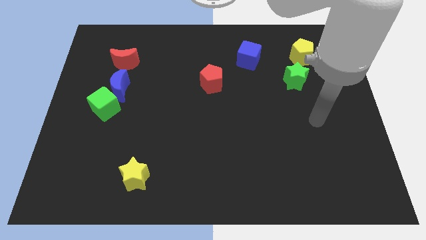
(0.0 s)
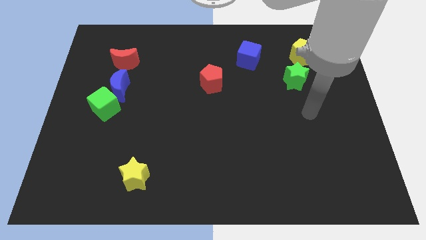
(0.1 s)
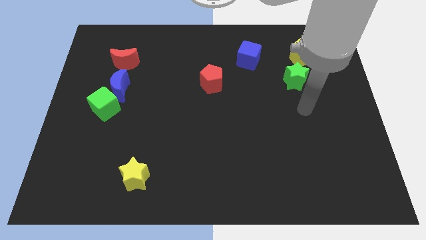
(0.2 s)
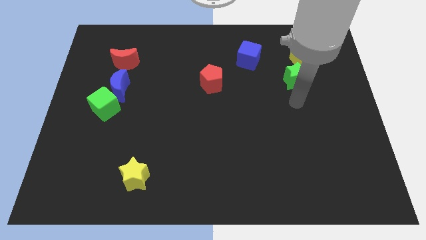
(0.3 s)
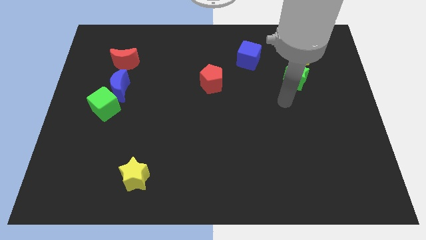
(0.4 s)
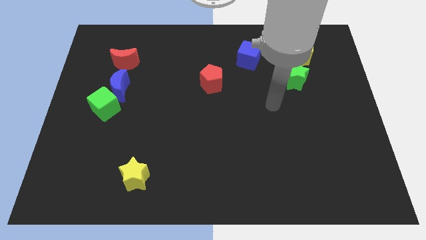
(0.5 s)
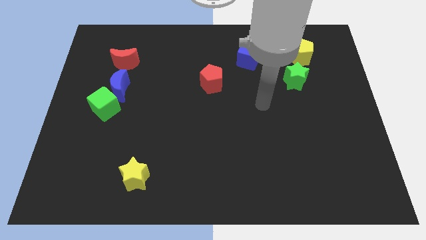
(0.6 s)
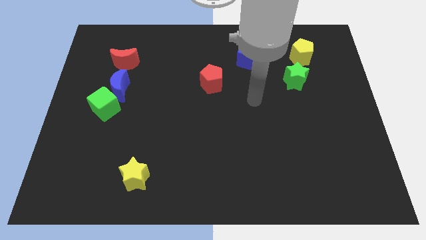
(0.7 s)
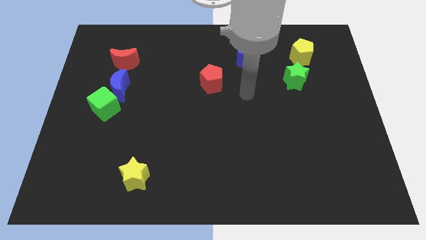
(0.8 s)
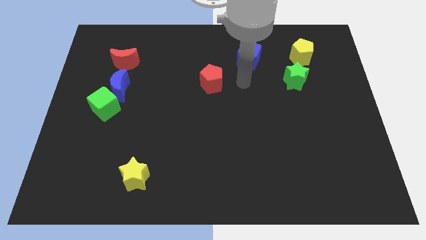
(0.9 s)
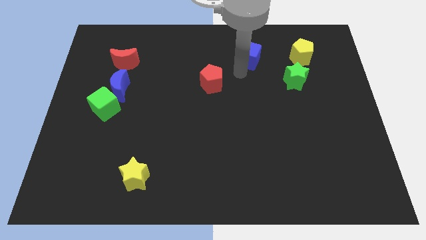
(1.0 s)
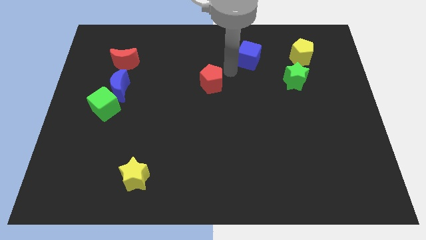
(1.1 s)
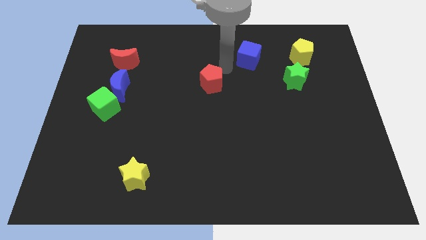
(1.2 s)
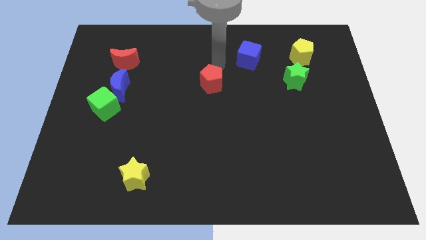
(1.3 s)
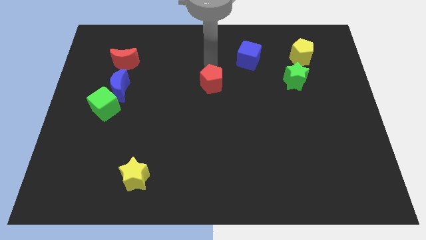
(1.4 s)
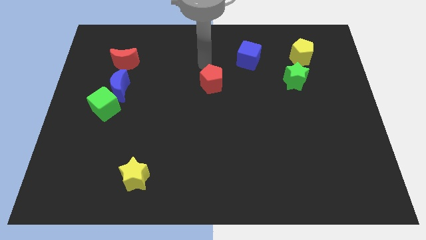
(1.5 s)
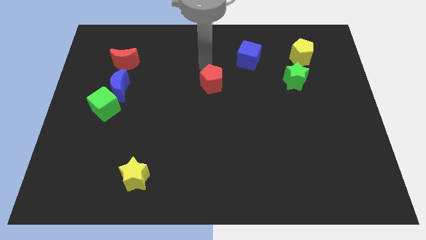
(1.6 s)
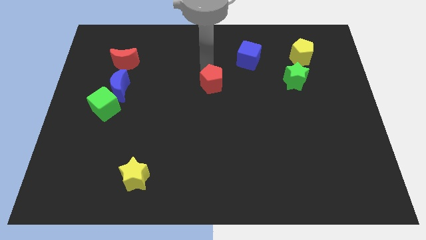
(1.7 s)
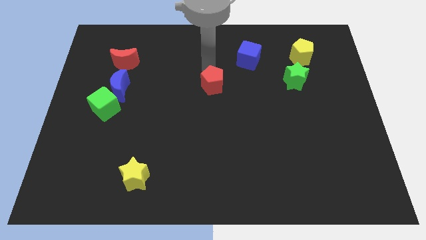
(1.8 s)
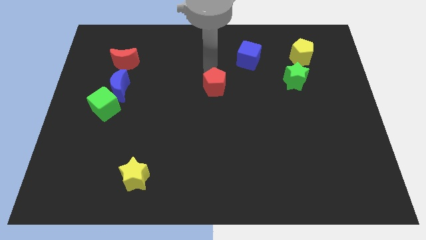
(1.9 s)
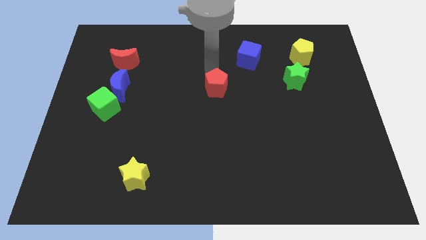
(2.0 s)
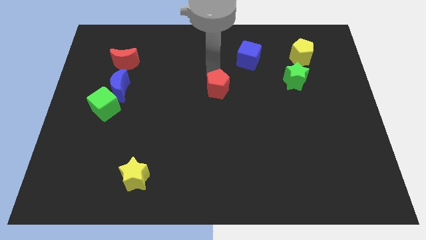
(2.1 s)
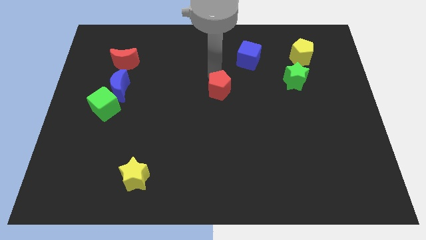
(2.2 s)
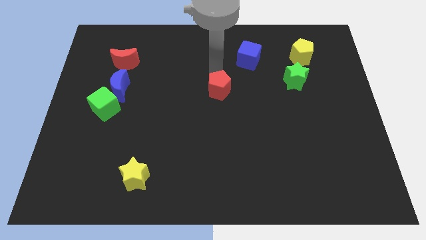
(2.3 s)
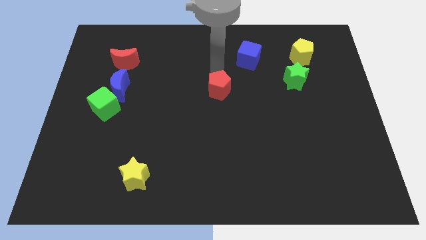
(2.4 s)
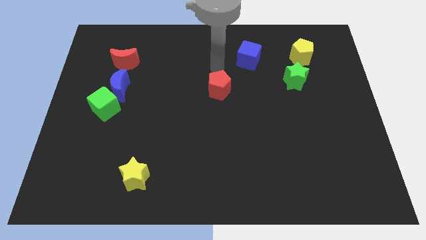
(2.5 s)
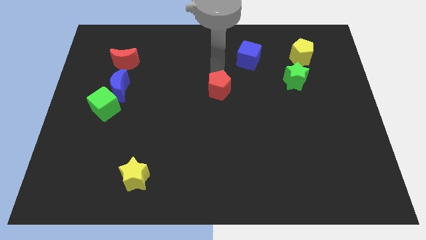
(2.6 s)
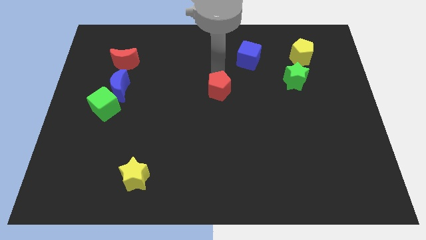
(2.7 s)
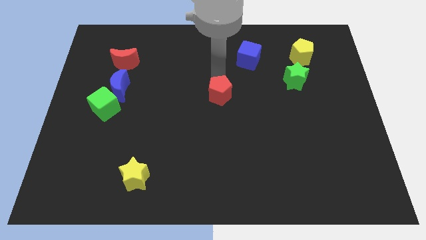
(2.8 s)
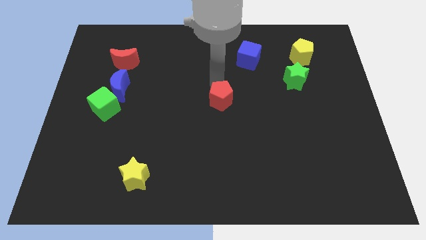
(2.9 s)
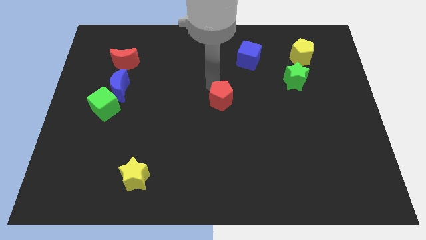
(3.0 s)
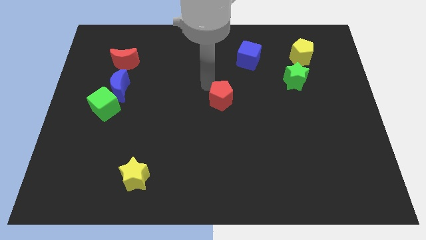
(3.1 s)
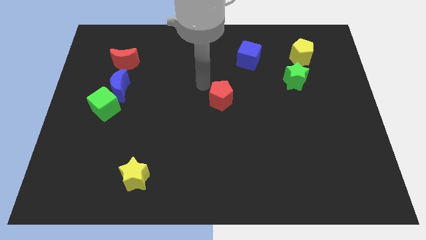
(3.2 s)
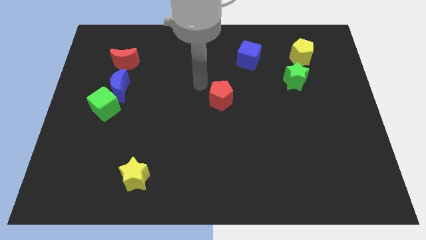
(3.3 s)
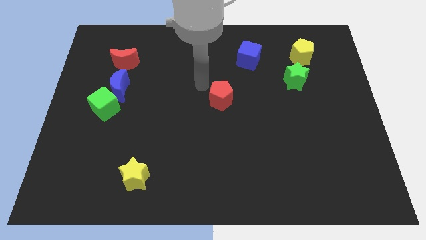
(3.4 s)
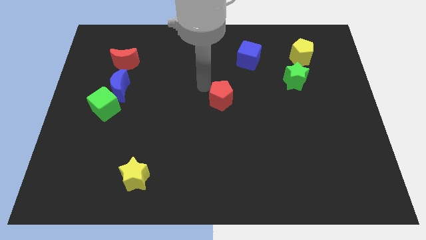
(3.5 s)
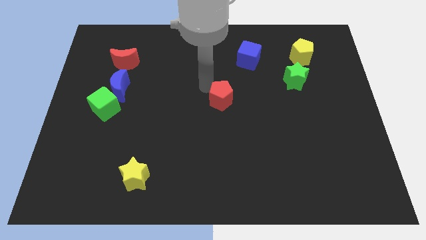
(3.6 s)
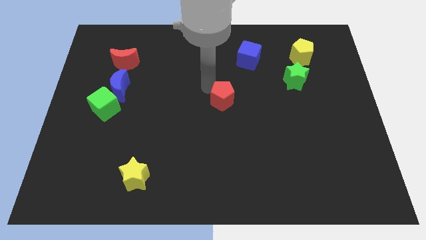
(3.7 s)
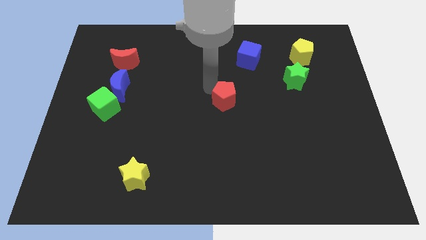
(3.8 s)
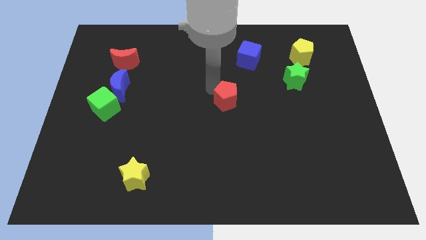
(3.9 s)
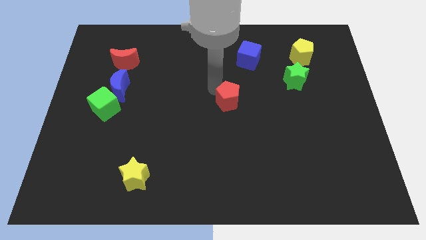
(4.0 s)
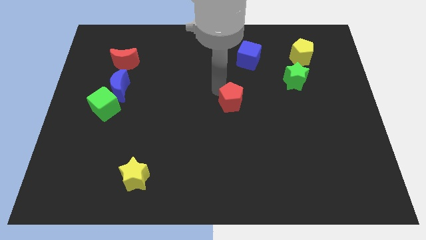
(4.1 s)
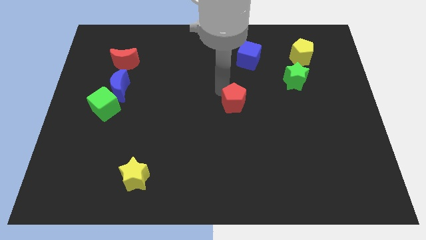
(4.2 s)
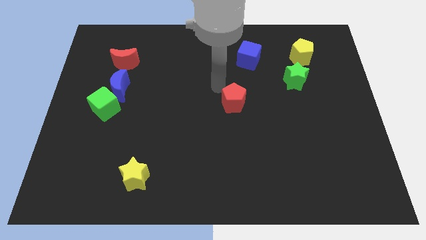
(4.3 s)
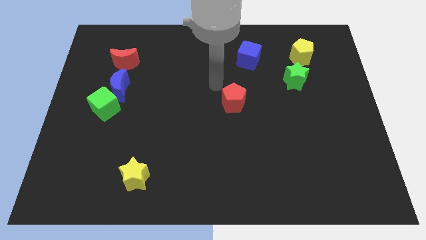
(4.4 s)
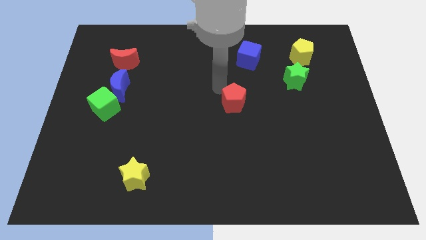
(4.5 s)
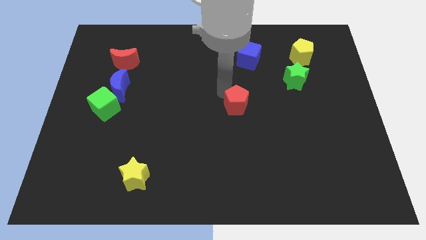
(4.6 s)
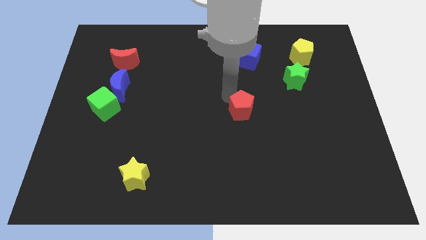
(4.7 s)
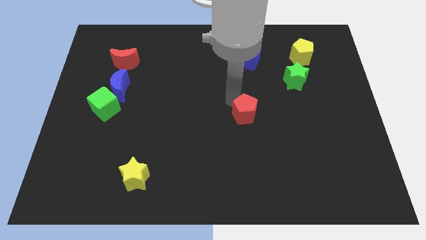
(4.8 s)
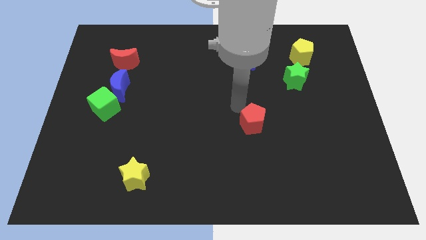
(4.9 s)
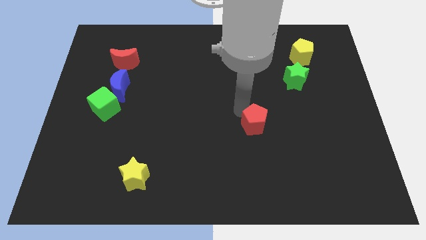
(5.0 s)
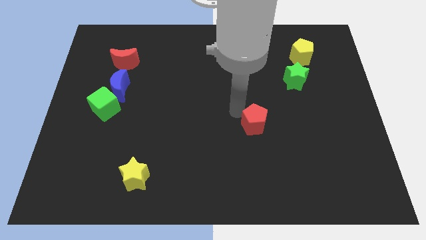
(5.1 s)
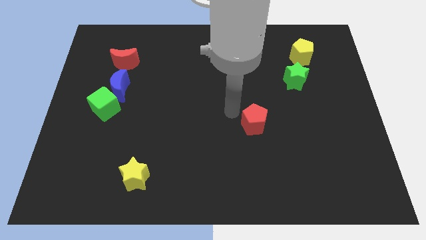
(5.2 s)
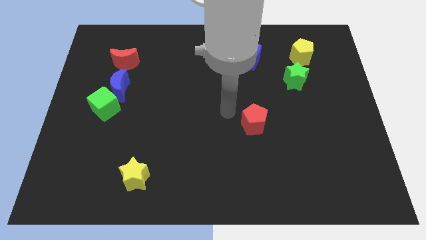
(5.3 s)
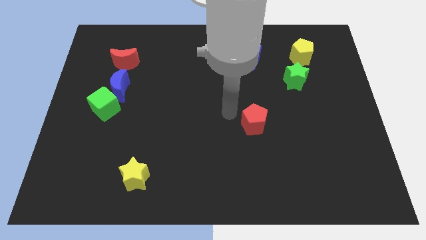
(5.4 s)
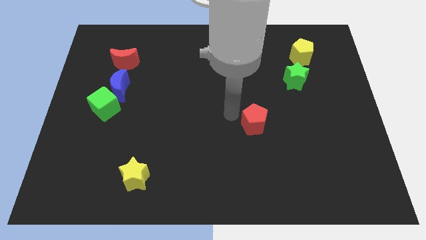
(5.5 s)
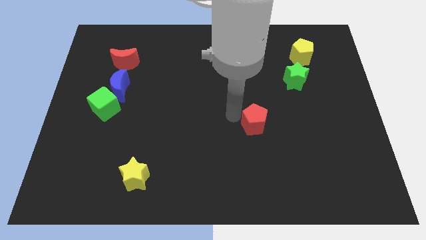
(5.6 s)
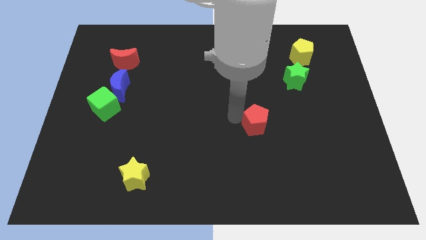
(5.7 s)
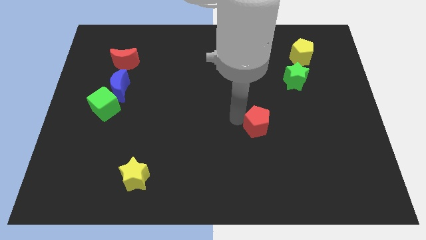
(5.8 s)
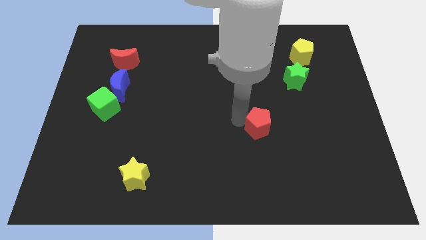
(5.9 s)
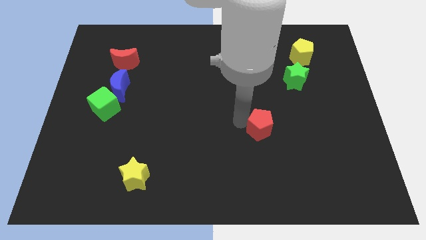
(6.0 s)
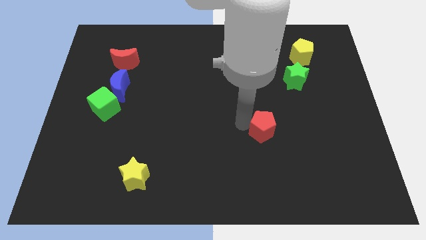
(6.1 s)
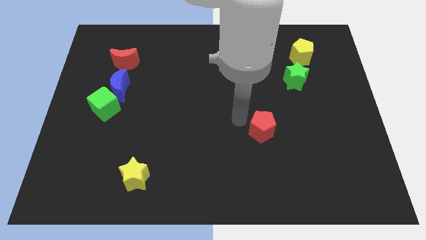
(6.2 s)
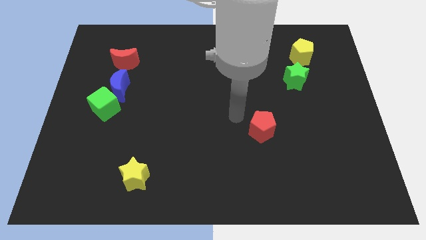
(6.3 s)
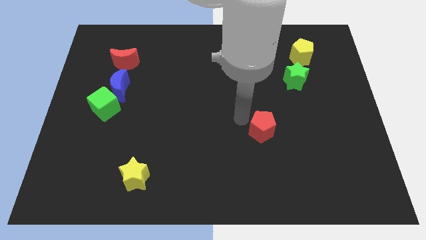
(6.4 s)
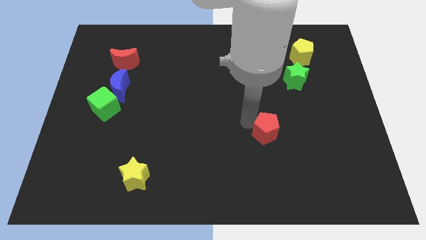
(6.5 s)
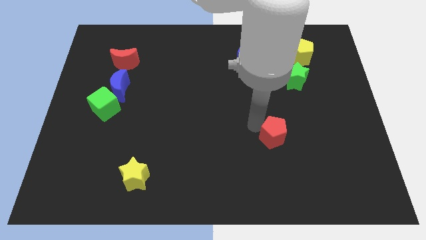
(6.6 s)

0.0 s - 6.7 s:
slide the red pentagon diagonally downwards and right

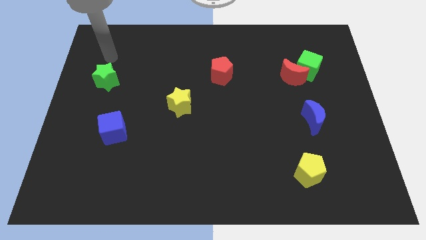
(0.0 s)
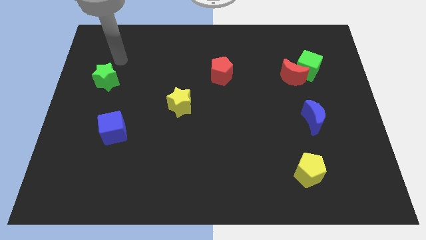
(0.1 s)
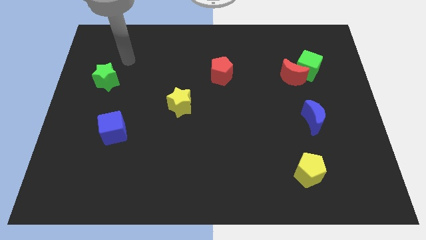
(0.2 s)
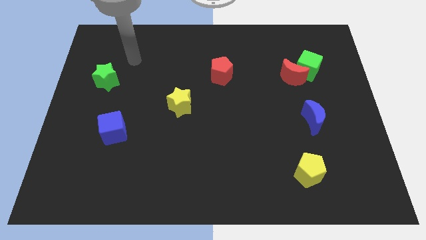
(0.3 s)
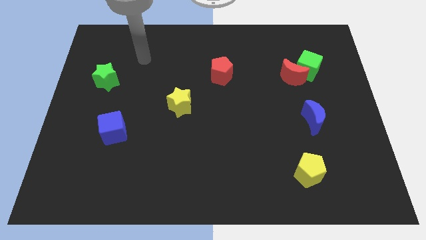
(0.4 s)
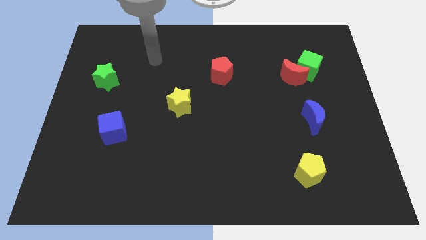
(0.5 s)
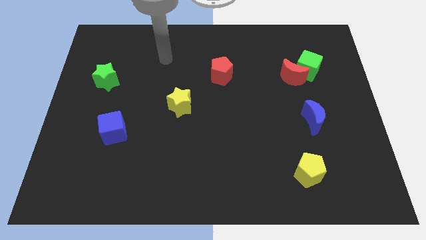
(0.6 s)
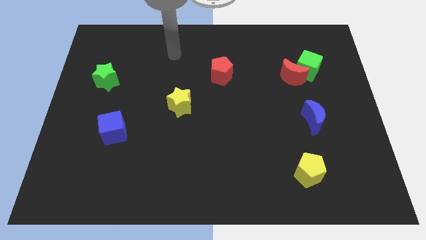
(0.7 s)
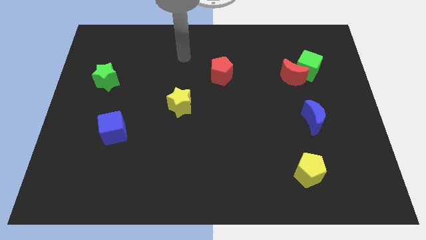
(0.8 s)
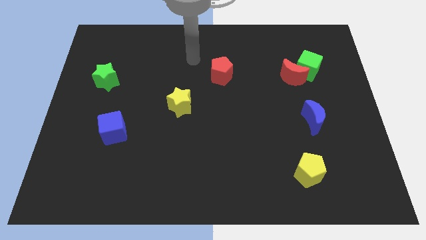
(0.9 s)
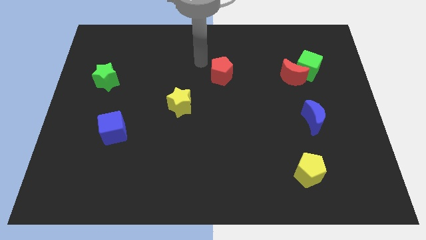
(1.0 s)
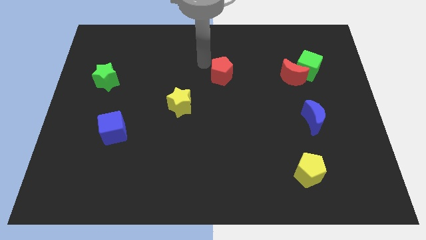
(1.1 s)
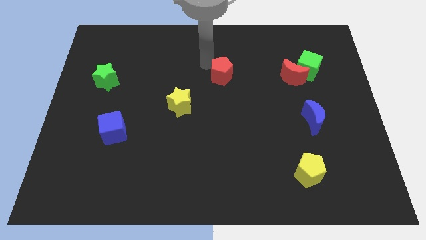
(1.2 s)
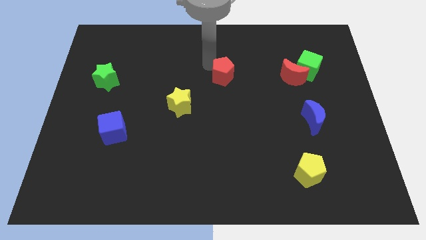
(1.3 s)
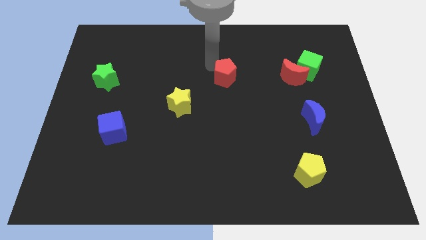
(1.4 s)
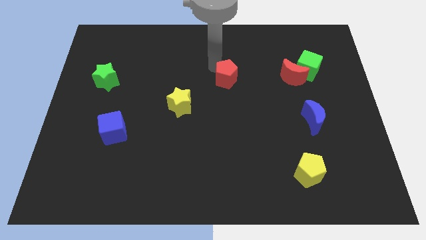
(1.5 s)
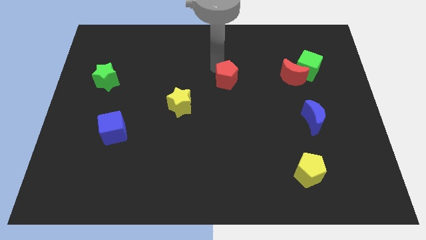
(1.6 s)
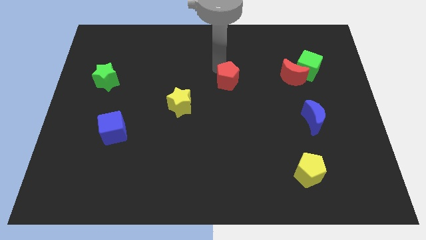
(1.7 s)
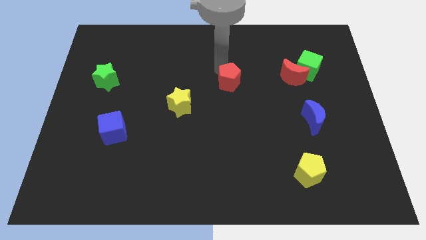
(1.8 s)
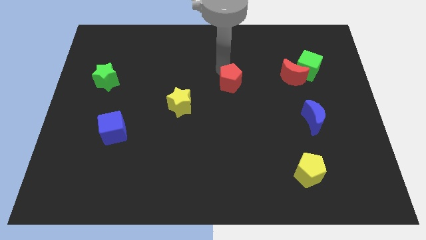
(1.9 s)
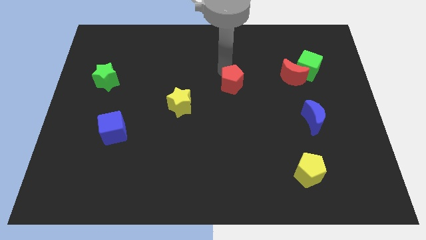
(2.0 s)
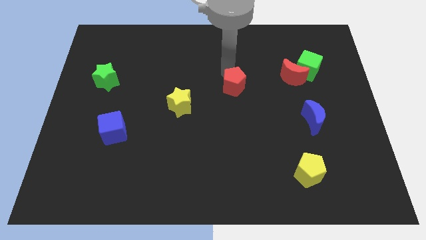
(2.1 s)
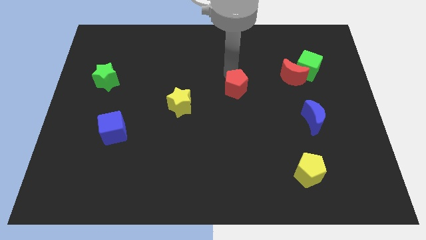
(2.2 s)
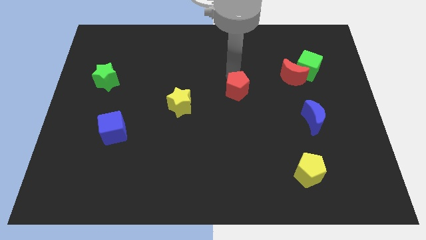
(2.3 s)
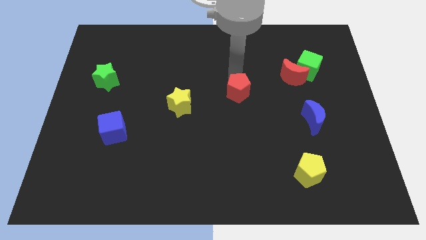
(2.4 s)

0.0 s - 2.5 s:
slightly move the red pentagon downwards and right diagonally
